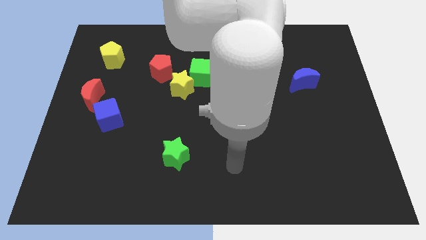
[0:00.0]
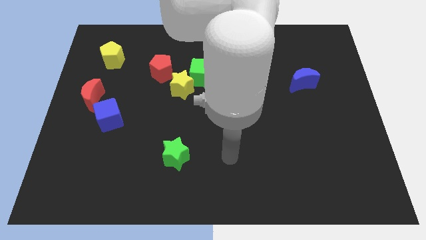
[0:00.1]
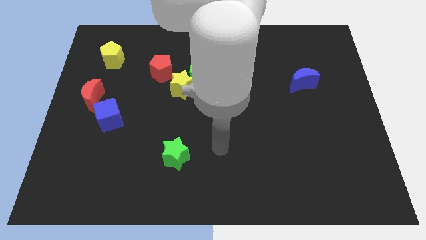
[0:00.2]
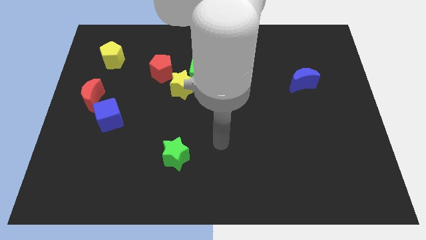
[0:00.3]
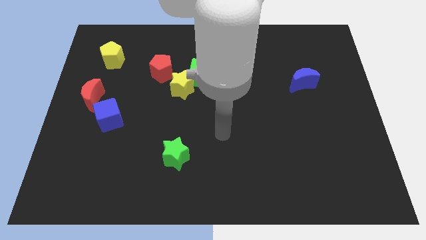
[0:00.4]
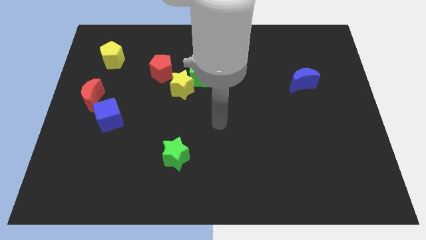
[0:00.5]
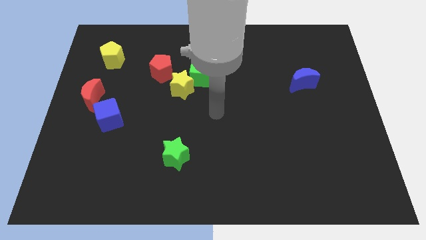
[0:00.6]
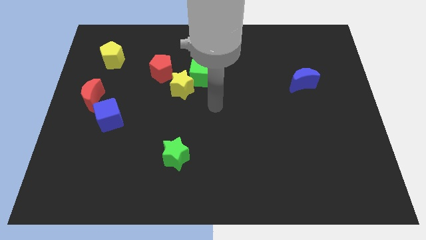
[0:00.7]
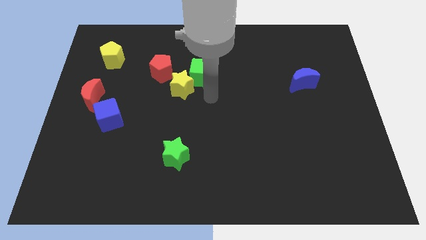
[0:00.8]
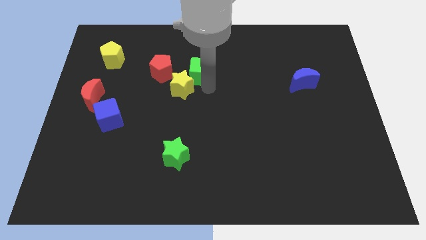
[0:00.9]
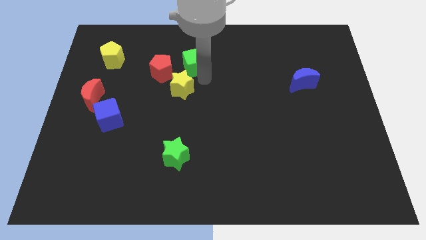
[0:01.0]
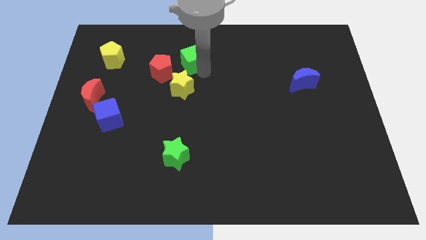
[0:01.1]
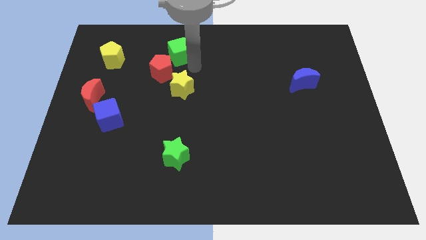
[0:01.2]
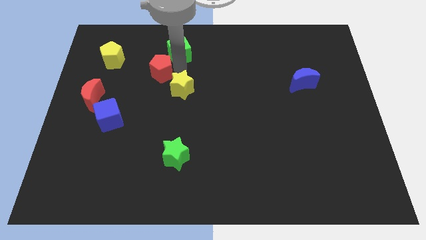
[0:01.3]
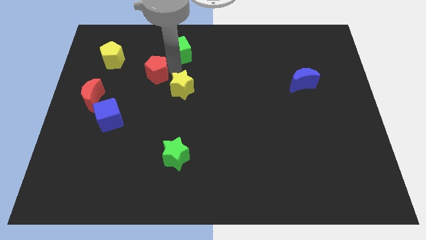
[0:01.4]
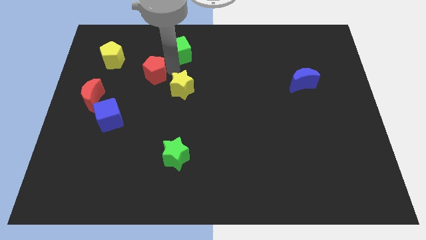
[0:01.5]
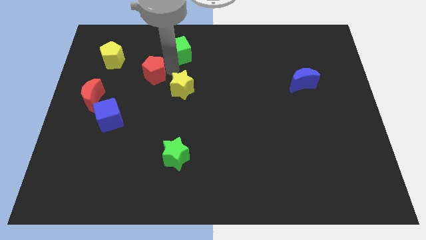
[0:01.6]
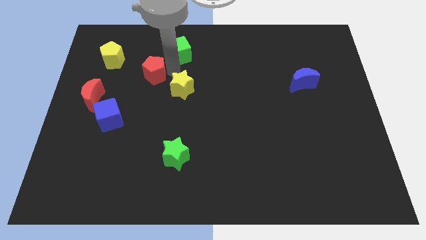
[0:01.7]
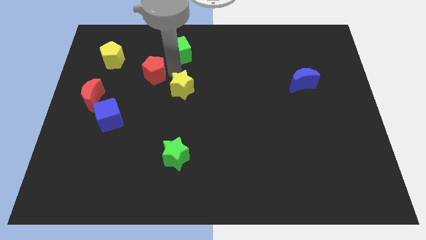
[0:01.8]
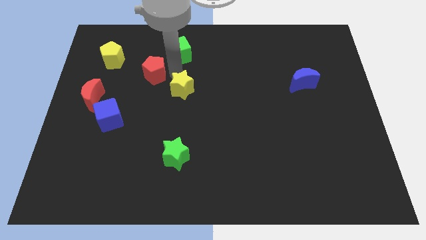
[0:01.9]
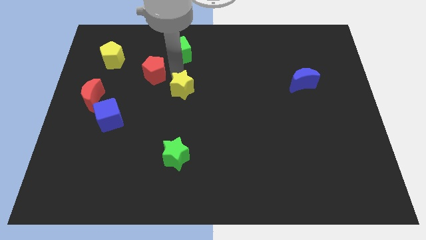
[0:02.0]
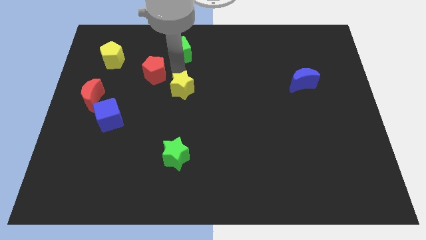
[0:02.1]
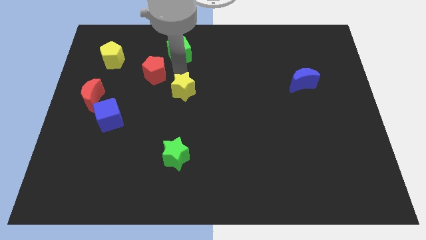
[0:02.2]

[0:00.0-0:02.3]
pull the yellow star apart from the green cube and red pentagon

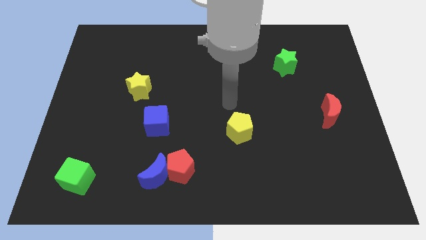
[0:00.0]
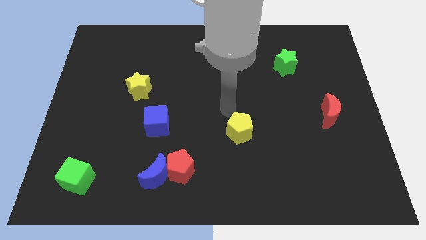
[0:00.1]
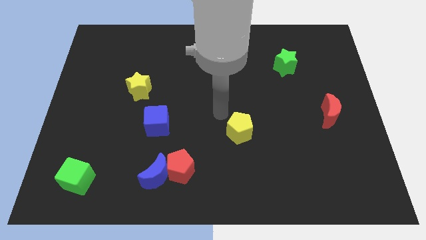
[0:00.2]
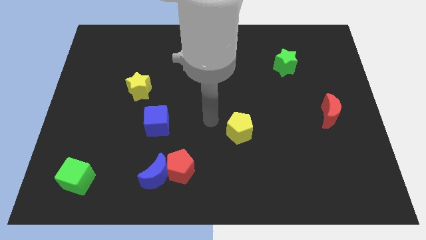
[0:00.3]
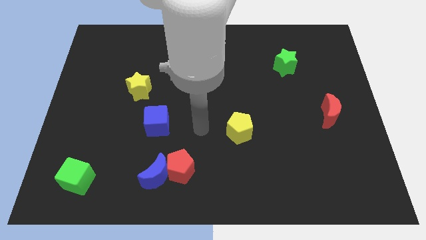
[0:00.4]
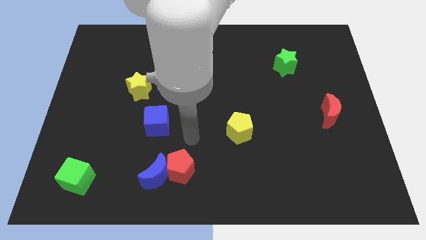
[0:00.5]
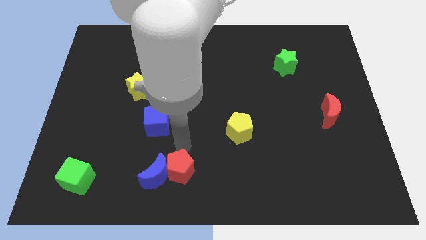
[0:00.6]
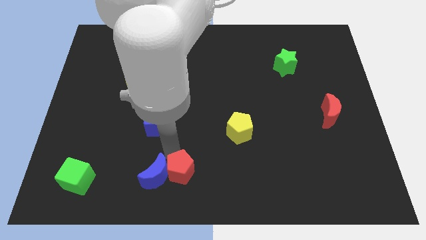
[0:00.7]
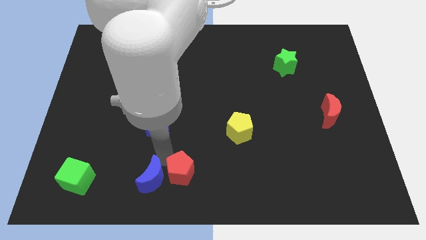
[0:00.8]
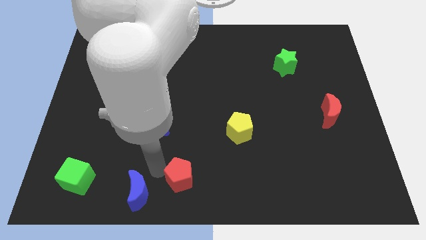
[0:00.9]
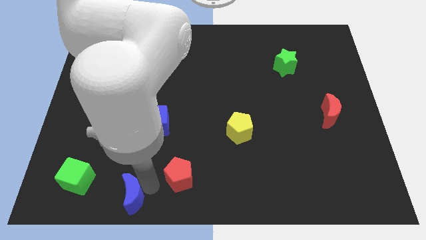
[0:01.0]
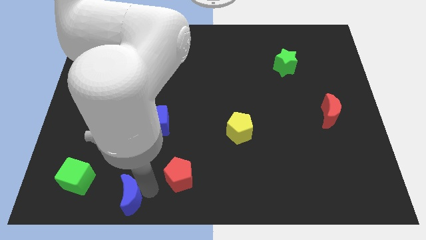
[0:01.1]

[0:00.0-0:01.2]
pull the red pentagon apart from the blue moon

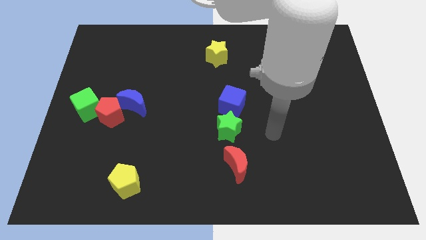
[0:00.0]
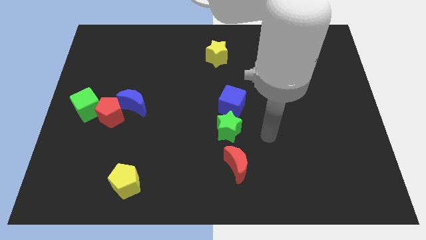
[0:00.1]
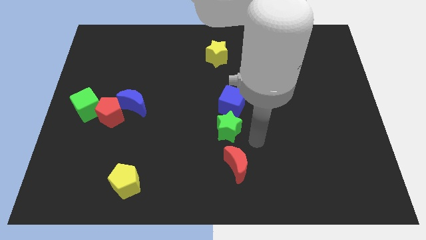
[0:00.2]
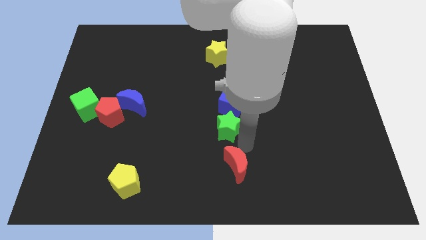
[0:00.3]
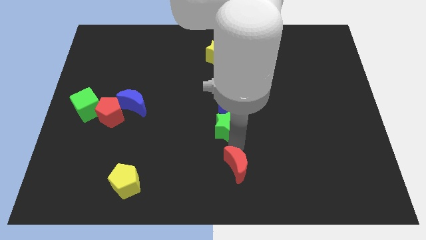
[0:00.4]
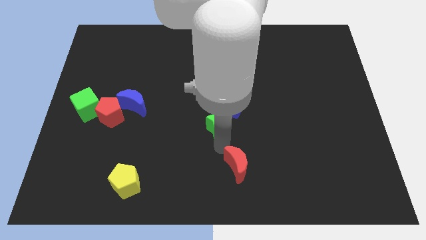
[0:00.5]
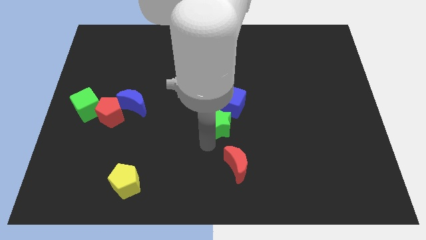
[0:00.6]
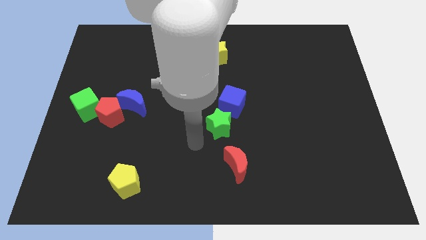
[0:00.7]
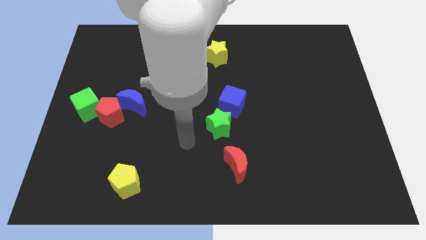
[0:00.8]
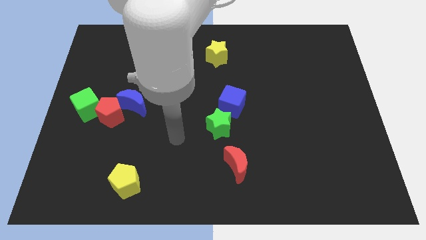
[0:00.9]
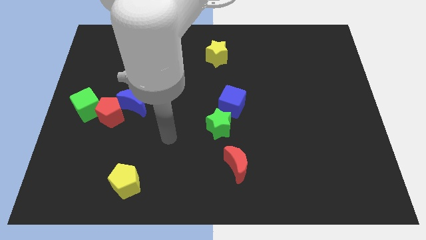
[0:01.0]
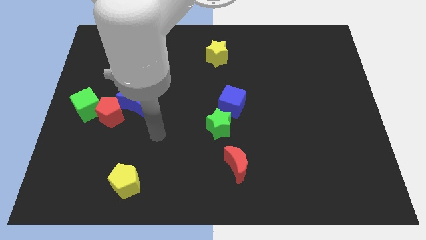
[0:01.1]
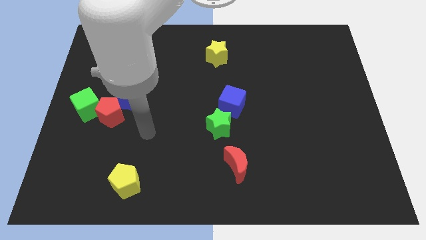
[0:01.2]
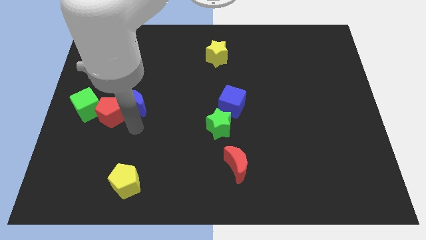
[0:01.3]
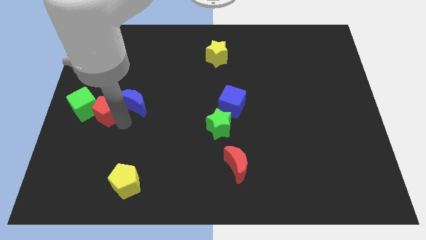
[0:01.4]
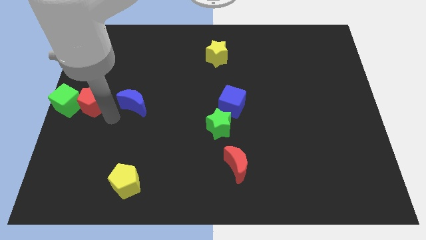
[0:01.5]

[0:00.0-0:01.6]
move the blue moon away from the red pentagon

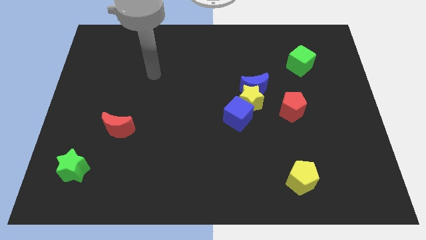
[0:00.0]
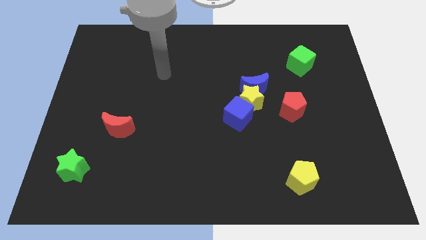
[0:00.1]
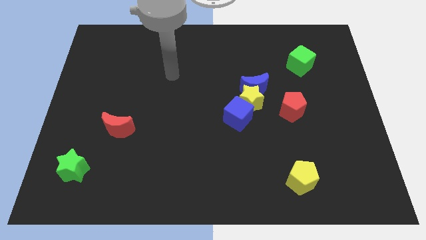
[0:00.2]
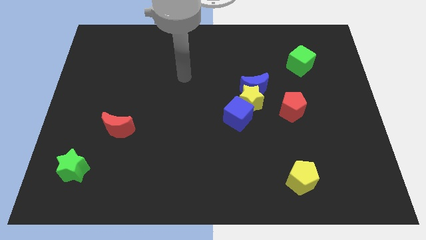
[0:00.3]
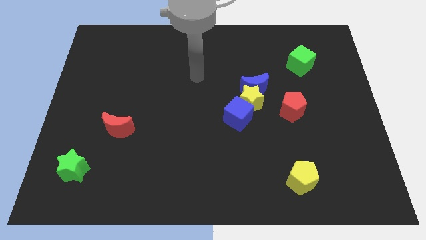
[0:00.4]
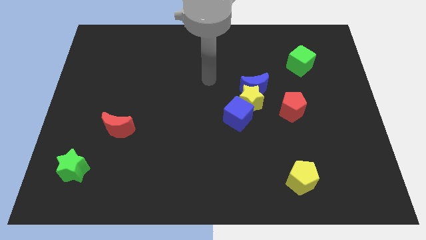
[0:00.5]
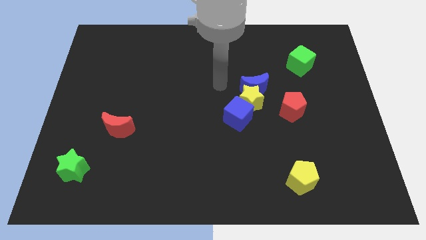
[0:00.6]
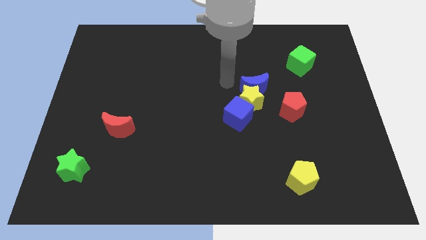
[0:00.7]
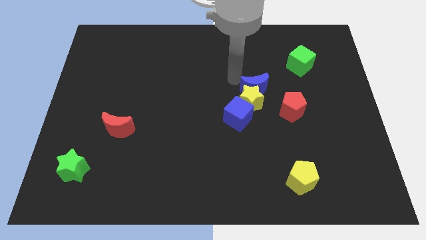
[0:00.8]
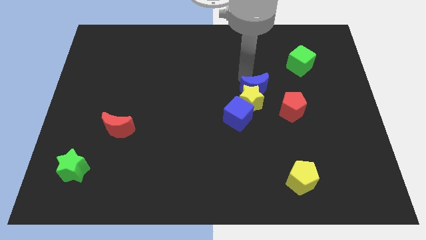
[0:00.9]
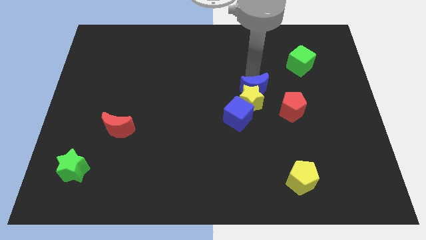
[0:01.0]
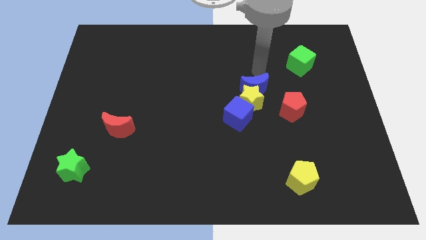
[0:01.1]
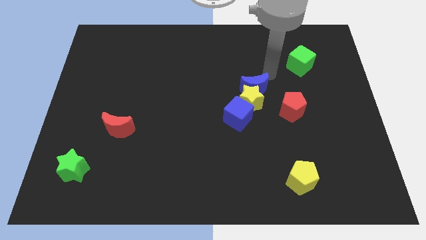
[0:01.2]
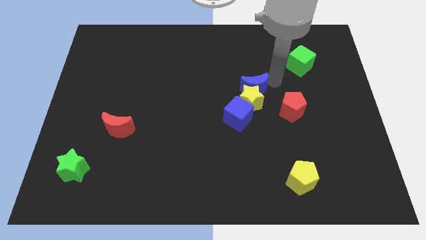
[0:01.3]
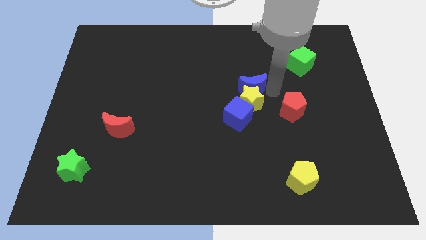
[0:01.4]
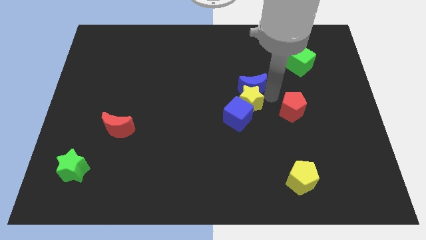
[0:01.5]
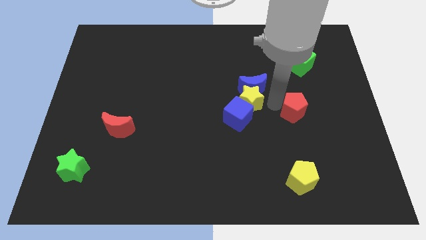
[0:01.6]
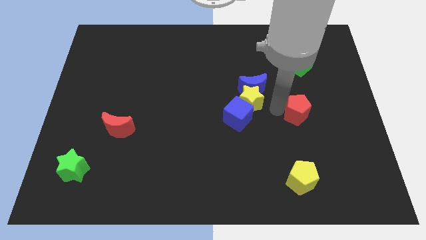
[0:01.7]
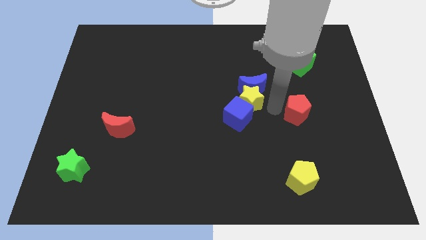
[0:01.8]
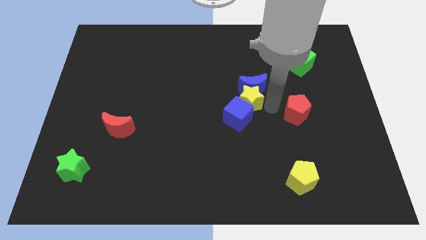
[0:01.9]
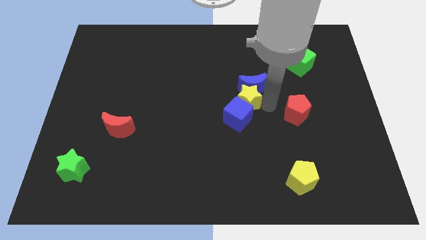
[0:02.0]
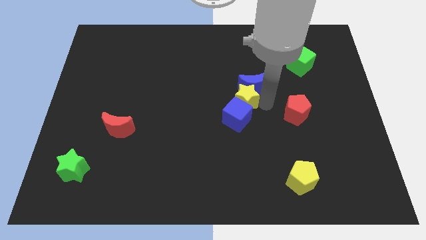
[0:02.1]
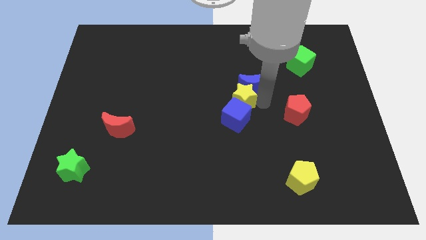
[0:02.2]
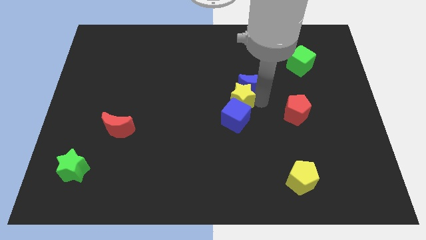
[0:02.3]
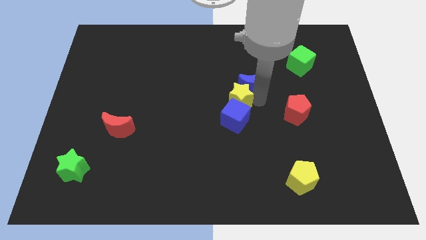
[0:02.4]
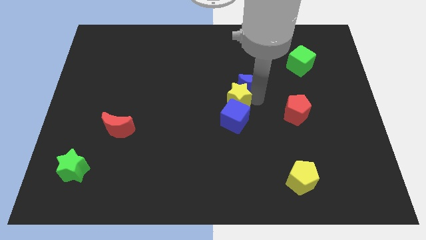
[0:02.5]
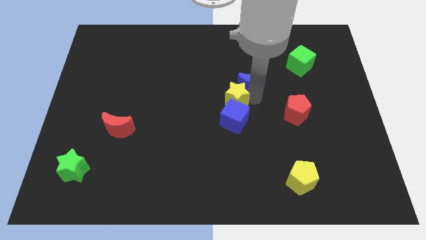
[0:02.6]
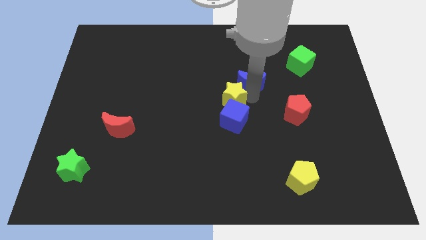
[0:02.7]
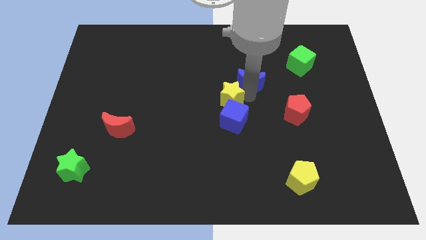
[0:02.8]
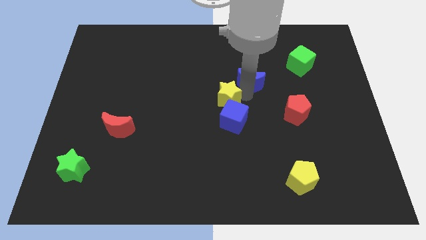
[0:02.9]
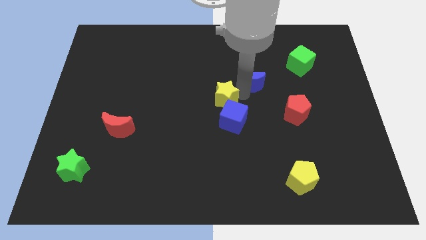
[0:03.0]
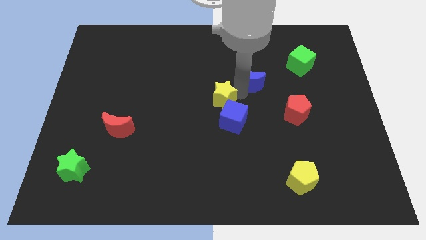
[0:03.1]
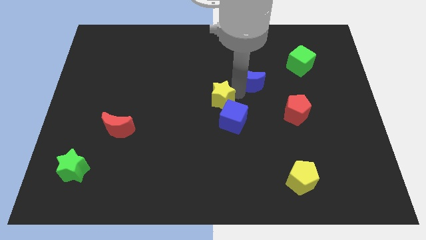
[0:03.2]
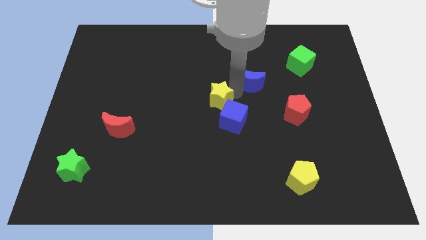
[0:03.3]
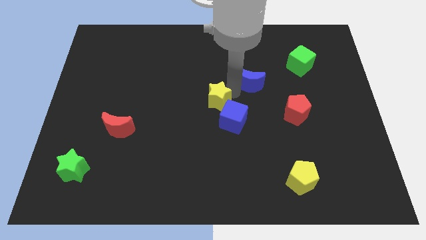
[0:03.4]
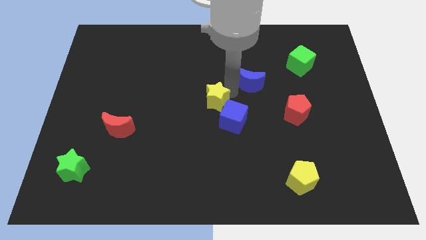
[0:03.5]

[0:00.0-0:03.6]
pull the yellow star apart from the group of blocks

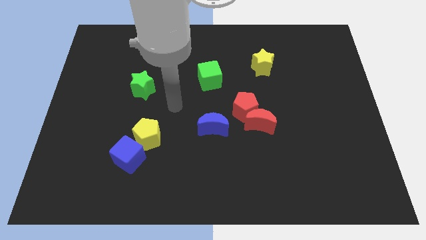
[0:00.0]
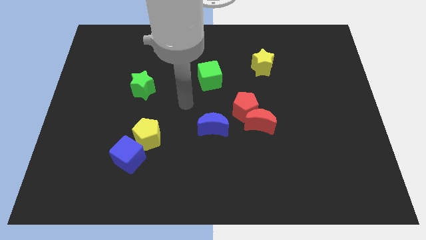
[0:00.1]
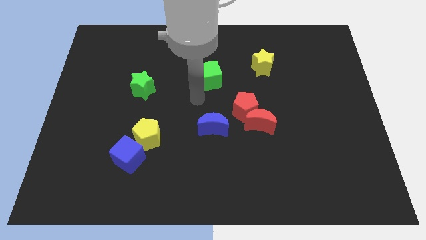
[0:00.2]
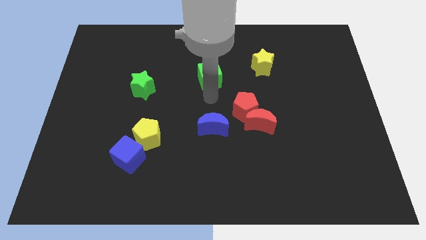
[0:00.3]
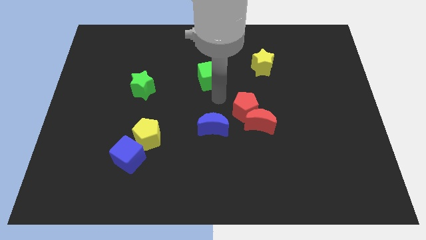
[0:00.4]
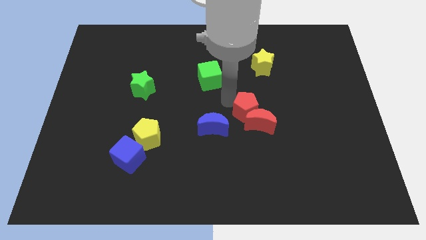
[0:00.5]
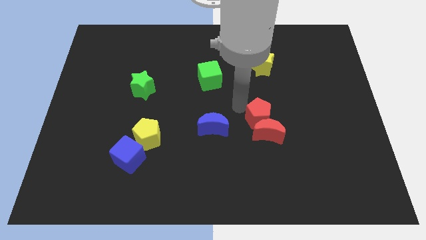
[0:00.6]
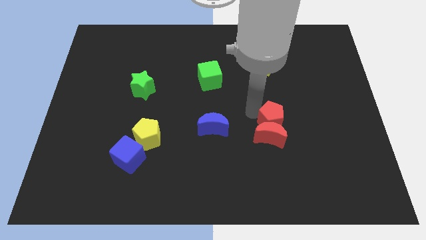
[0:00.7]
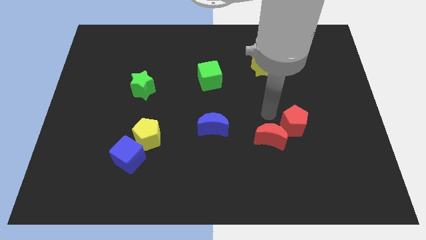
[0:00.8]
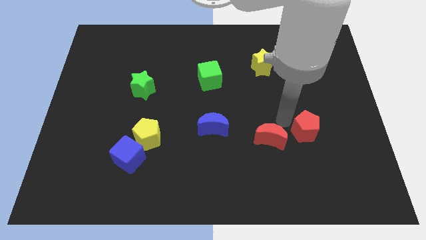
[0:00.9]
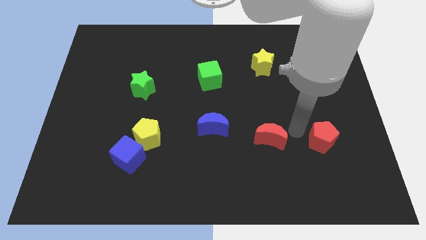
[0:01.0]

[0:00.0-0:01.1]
pull the red moon apart from the red pentagon
